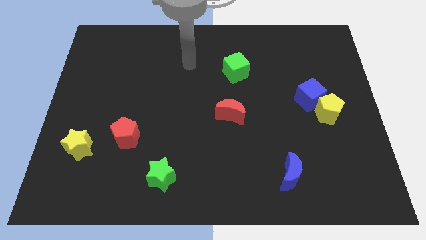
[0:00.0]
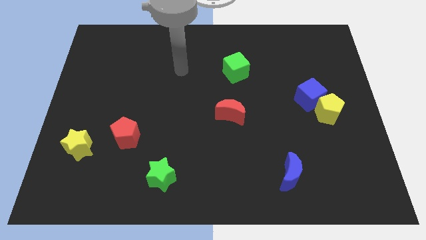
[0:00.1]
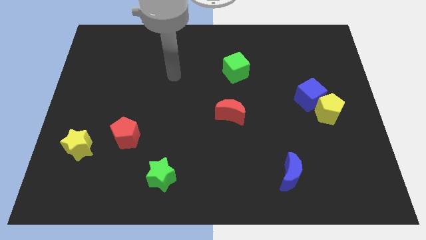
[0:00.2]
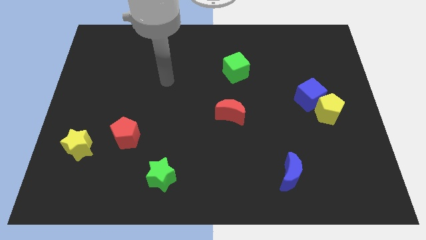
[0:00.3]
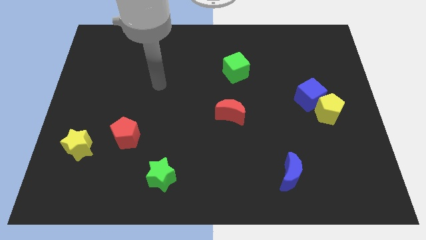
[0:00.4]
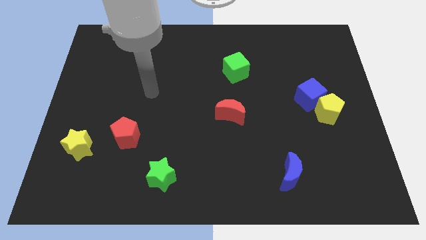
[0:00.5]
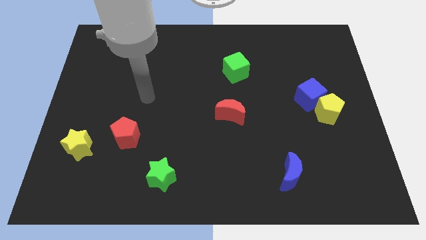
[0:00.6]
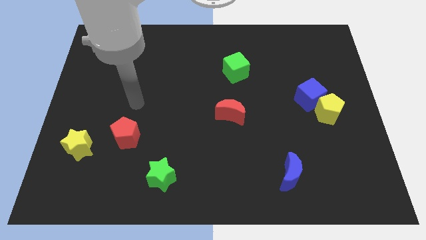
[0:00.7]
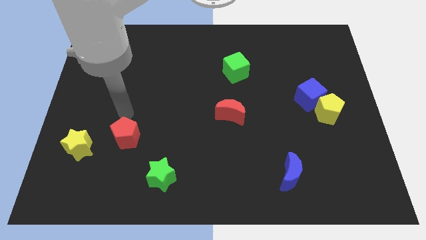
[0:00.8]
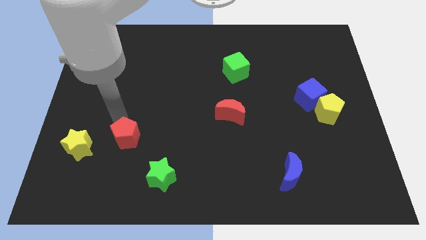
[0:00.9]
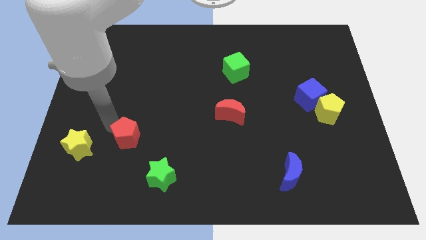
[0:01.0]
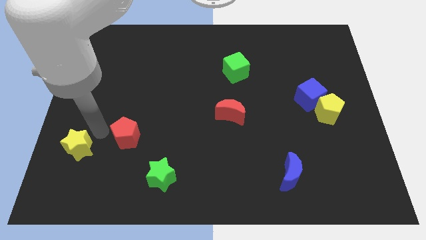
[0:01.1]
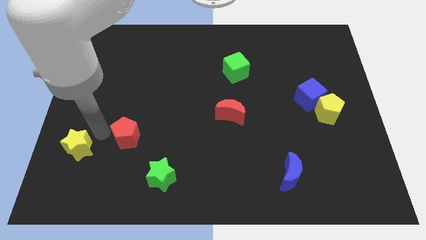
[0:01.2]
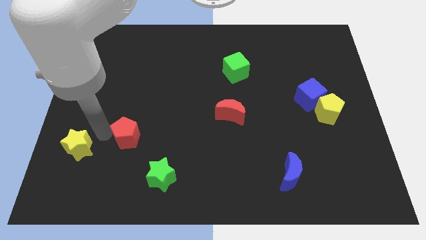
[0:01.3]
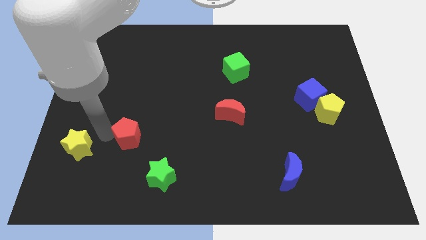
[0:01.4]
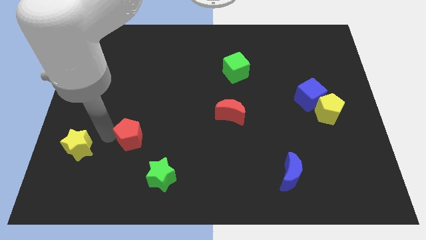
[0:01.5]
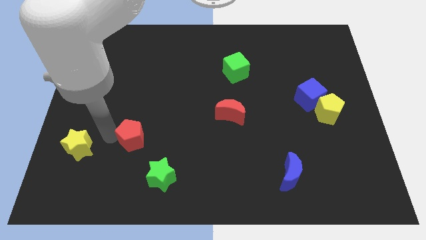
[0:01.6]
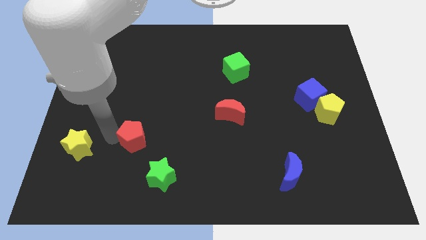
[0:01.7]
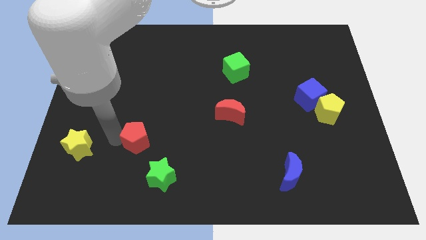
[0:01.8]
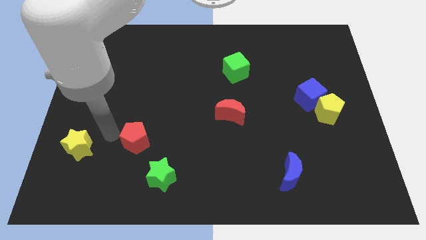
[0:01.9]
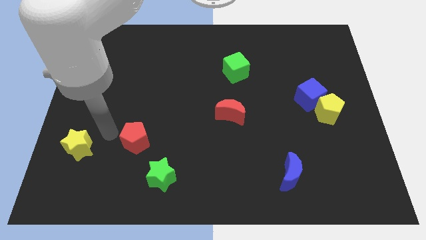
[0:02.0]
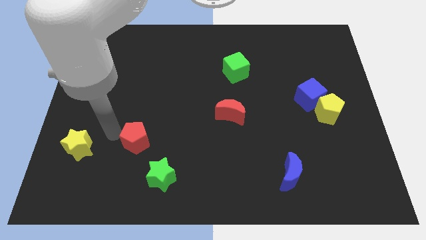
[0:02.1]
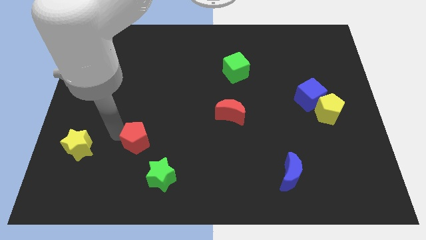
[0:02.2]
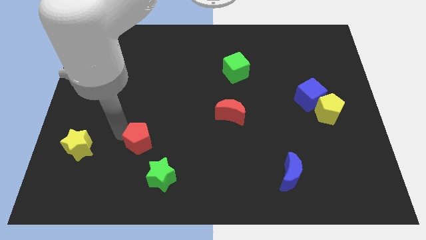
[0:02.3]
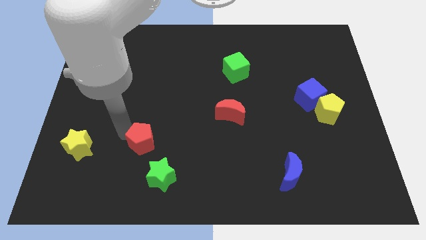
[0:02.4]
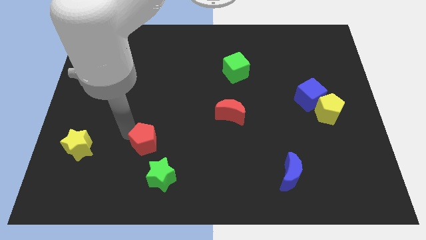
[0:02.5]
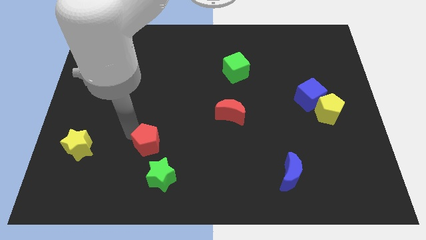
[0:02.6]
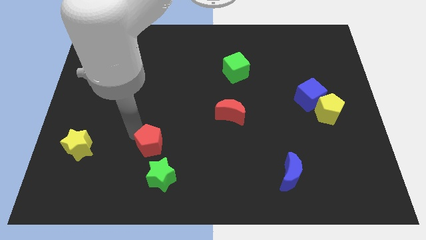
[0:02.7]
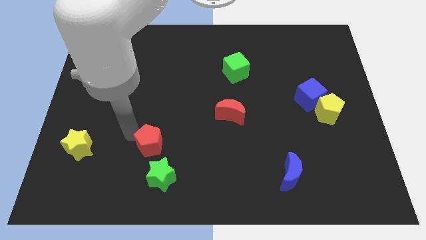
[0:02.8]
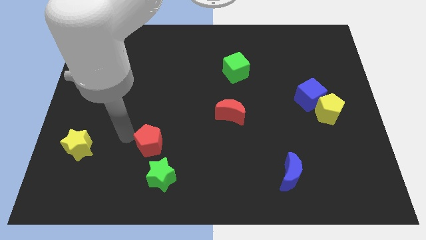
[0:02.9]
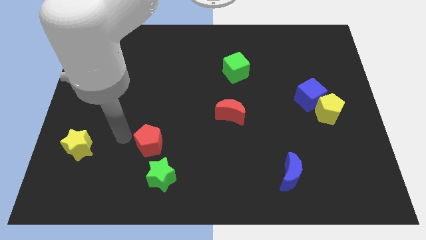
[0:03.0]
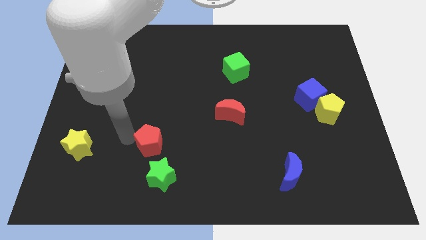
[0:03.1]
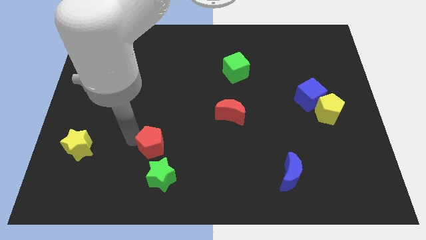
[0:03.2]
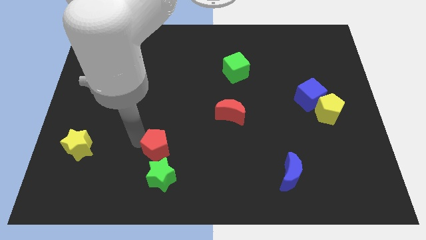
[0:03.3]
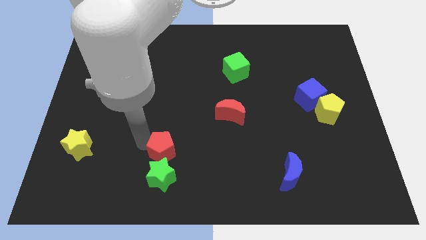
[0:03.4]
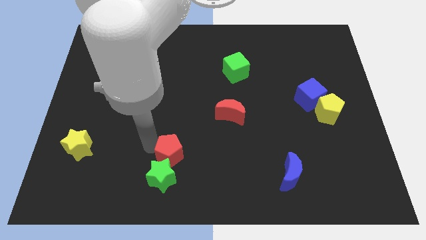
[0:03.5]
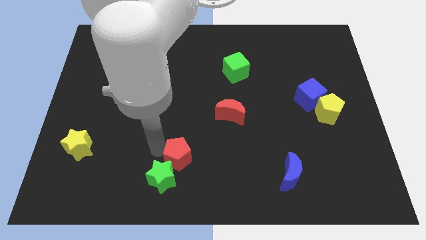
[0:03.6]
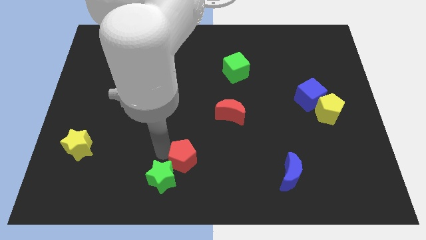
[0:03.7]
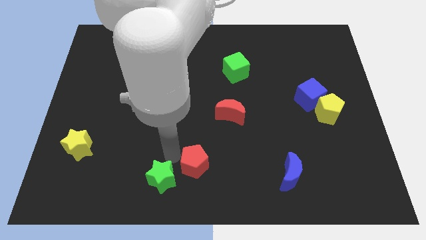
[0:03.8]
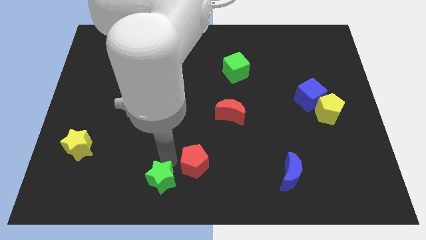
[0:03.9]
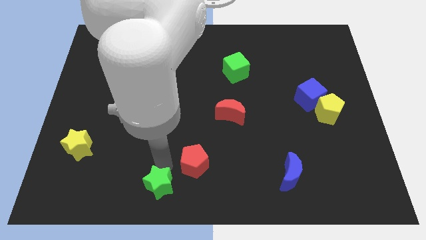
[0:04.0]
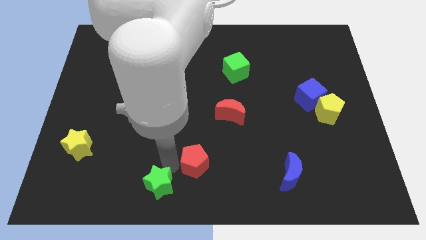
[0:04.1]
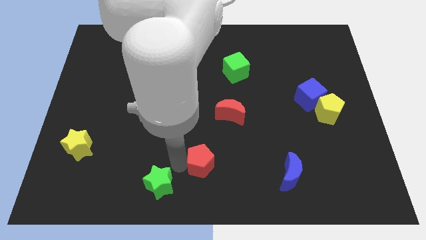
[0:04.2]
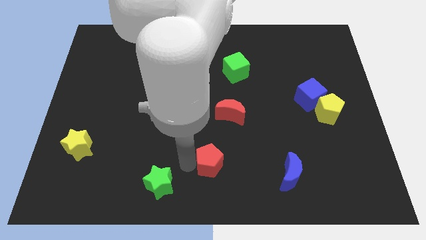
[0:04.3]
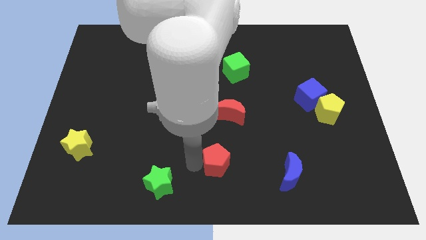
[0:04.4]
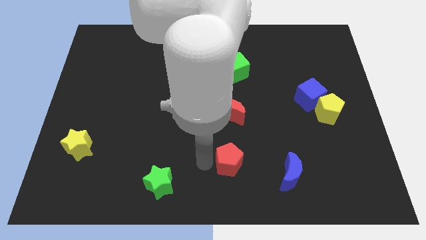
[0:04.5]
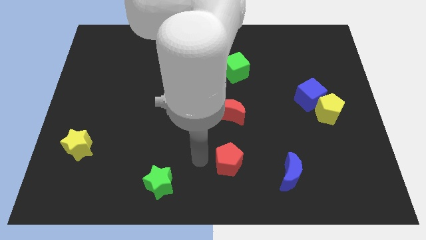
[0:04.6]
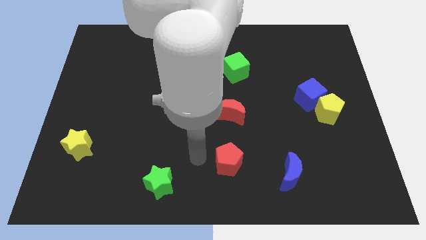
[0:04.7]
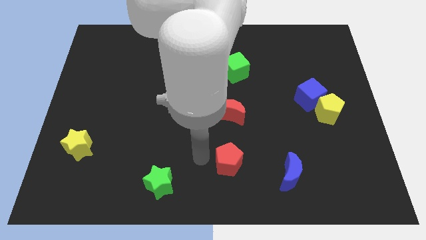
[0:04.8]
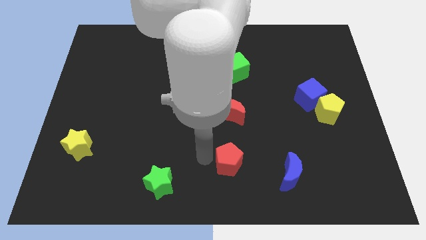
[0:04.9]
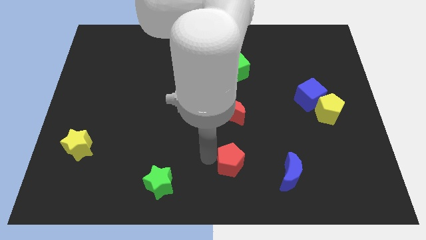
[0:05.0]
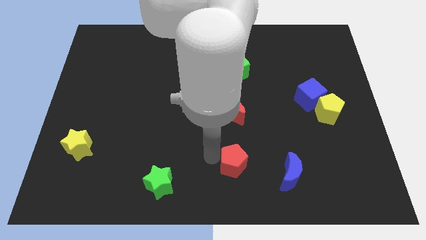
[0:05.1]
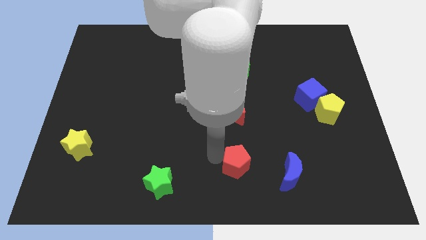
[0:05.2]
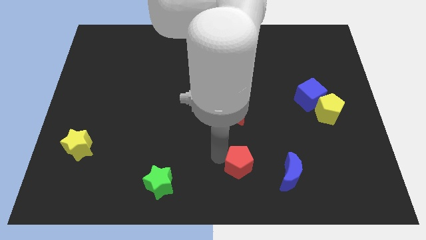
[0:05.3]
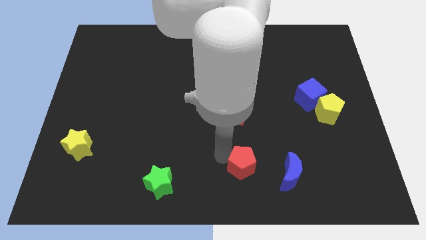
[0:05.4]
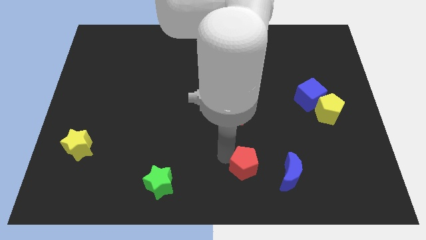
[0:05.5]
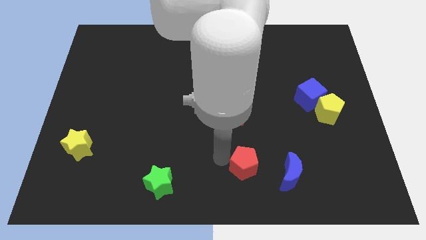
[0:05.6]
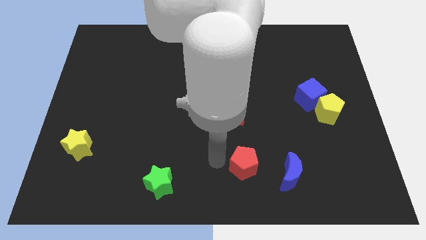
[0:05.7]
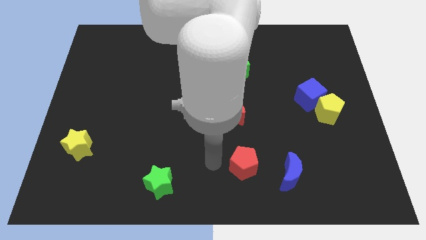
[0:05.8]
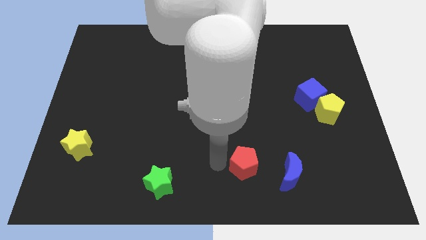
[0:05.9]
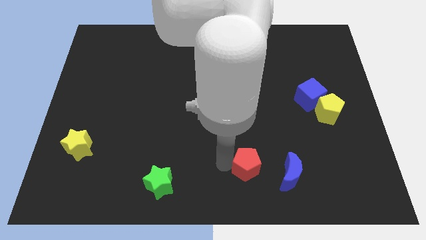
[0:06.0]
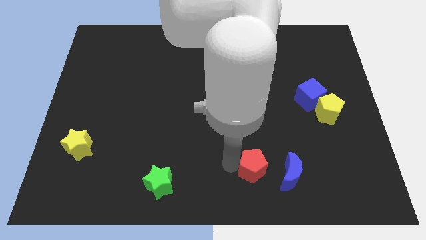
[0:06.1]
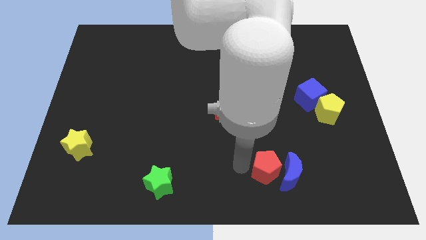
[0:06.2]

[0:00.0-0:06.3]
slide the red pentagon next to the blue moon
